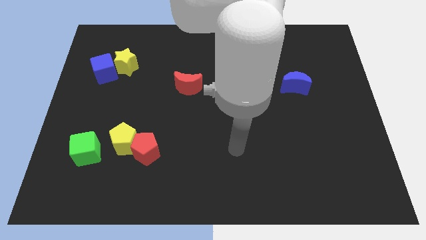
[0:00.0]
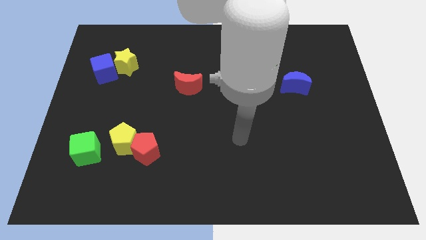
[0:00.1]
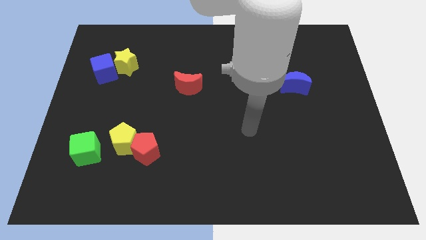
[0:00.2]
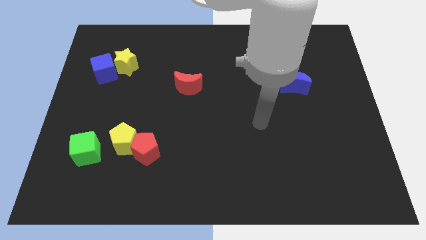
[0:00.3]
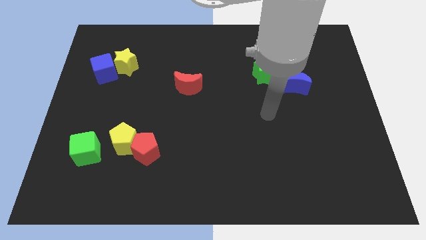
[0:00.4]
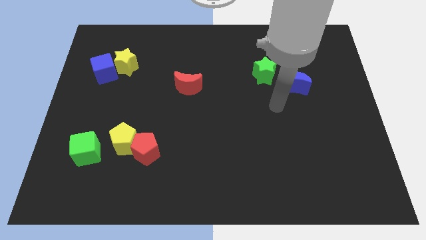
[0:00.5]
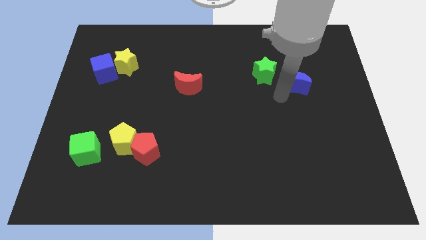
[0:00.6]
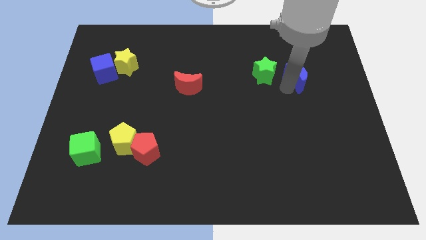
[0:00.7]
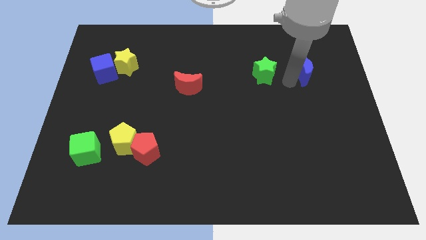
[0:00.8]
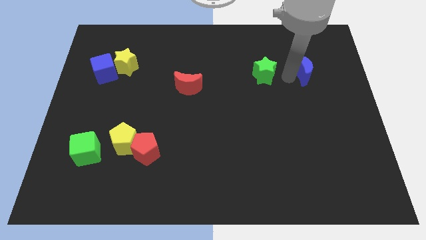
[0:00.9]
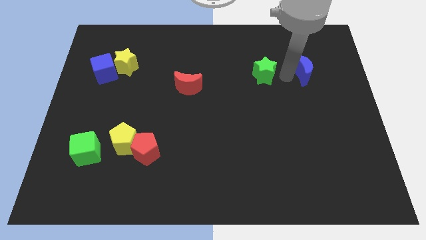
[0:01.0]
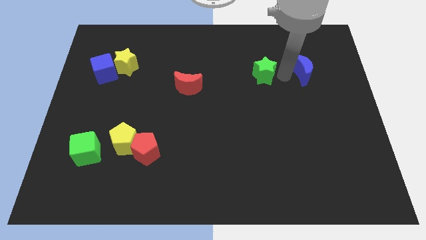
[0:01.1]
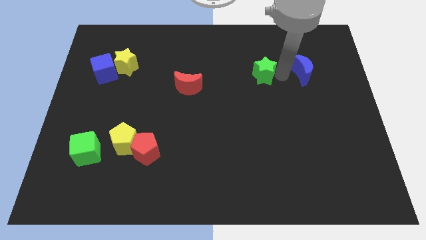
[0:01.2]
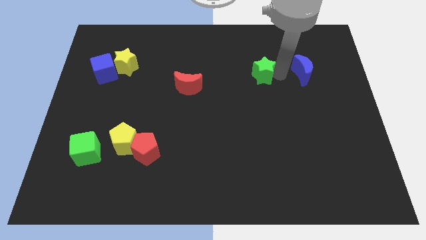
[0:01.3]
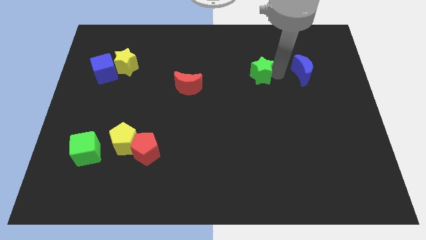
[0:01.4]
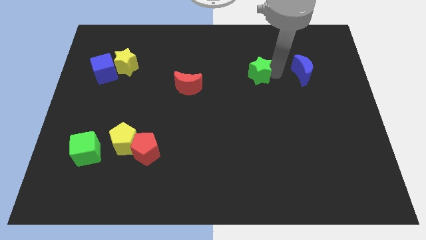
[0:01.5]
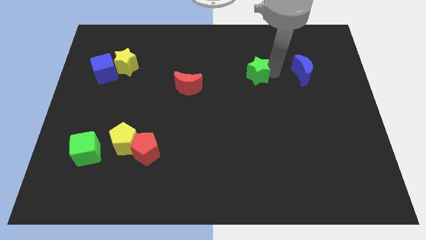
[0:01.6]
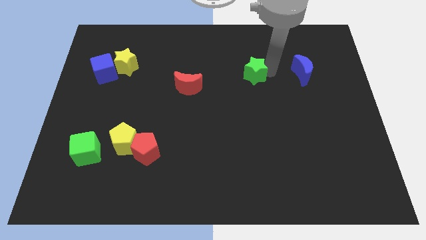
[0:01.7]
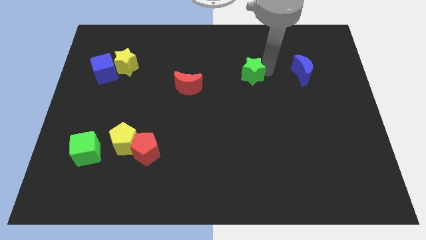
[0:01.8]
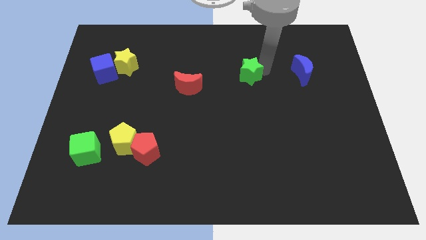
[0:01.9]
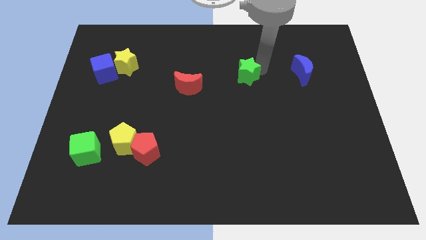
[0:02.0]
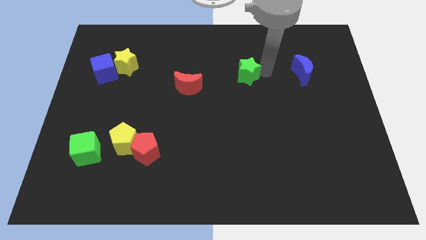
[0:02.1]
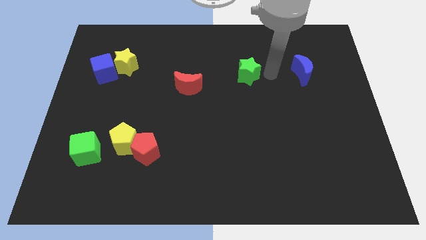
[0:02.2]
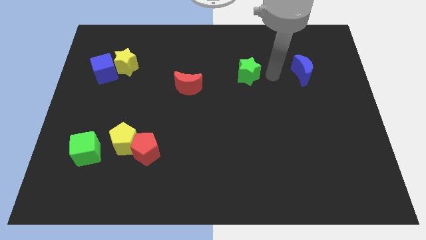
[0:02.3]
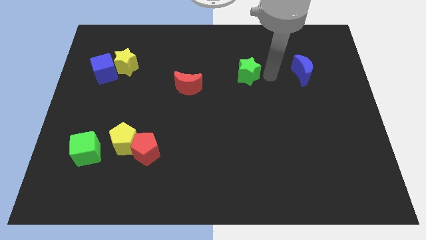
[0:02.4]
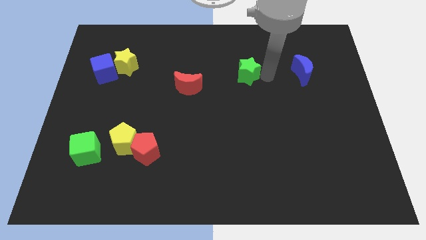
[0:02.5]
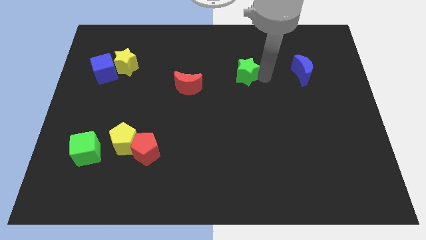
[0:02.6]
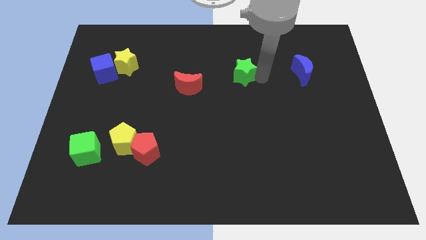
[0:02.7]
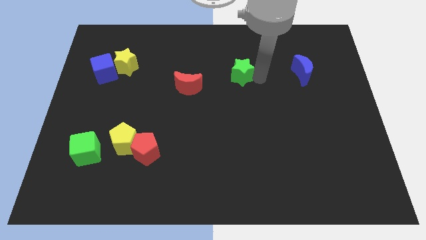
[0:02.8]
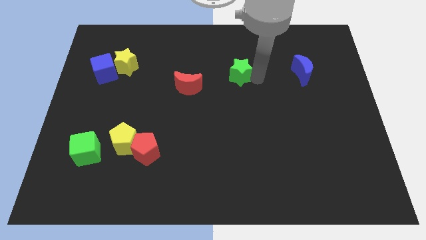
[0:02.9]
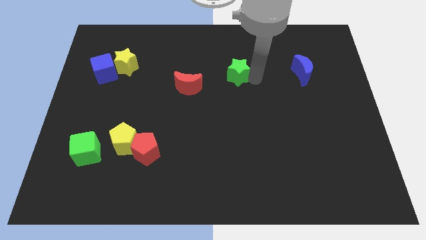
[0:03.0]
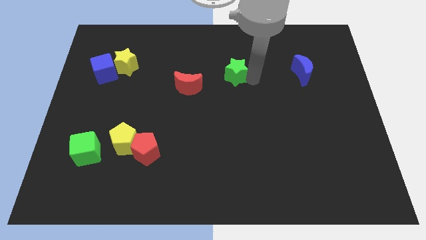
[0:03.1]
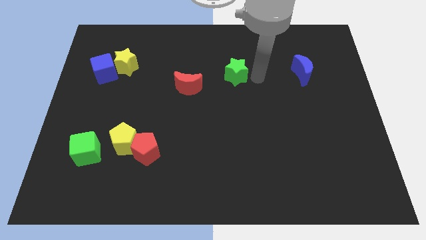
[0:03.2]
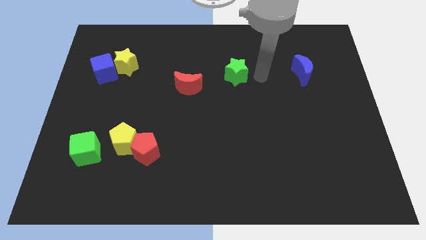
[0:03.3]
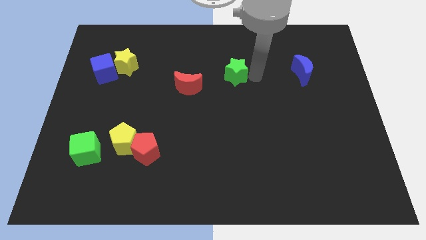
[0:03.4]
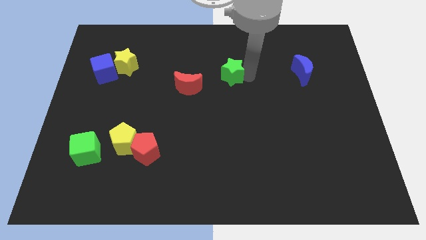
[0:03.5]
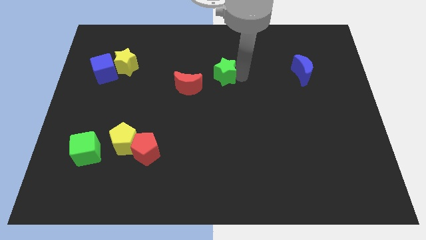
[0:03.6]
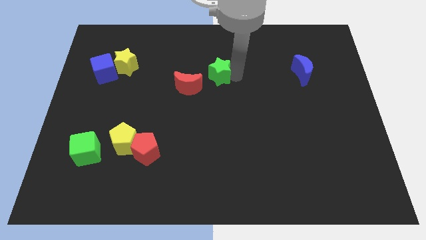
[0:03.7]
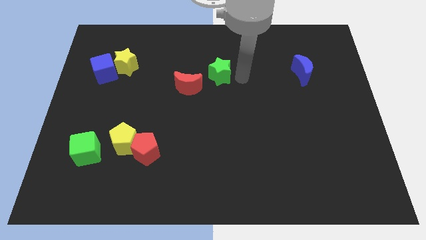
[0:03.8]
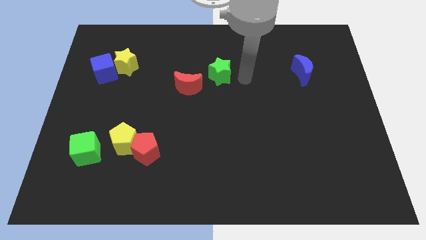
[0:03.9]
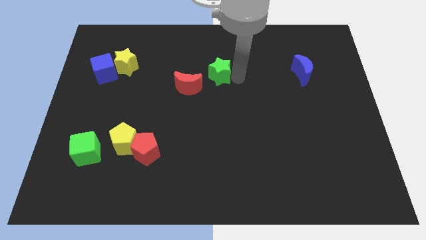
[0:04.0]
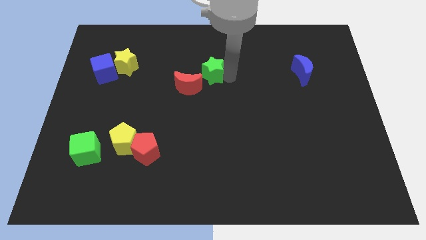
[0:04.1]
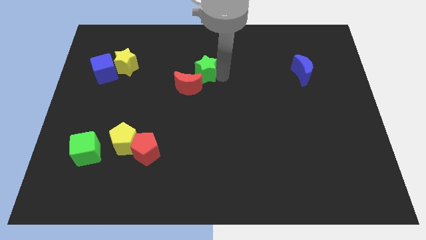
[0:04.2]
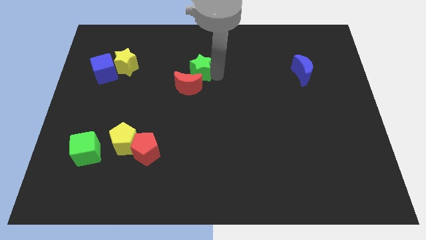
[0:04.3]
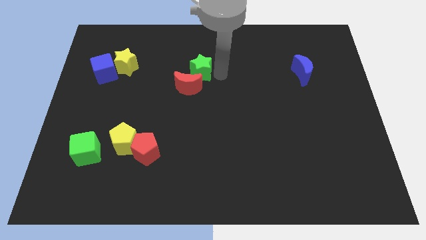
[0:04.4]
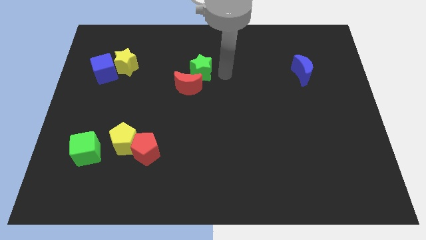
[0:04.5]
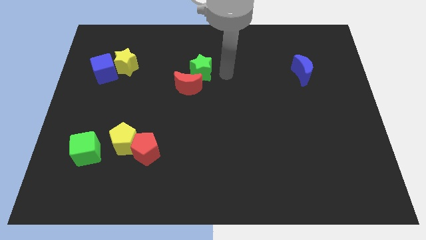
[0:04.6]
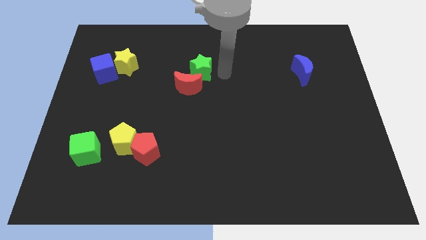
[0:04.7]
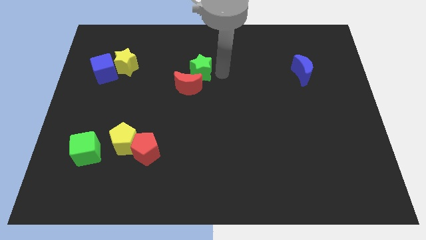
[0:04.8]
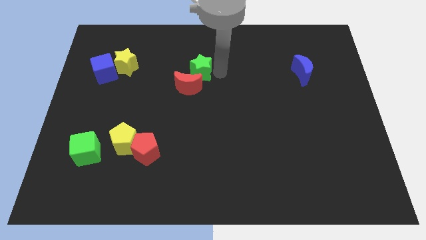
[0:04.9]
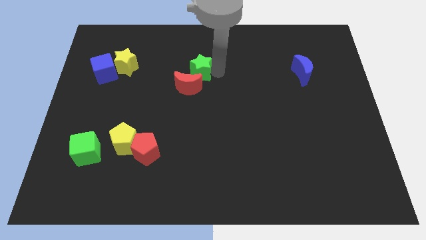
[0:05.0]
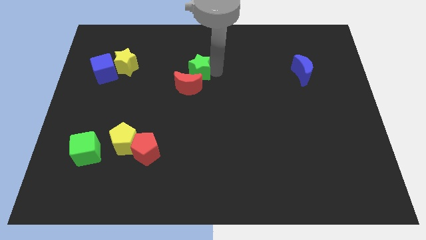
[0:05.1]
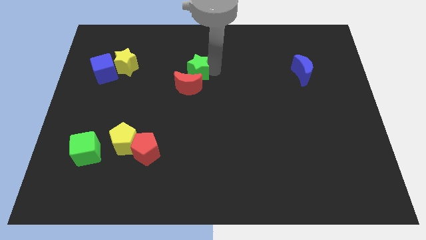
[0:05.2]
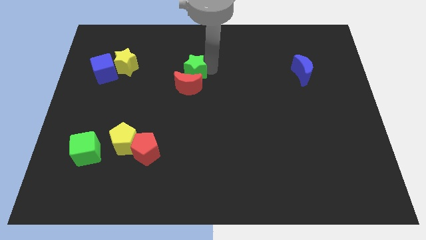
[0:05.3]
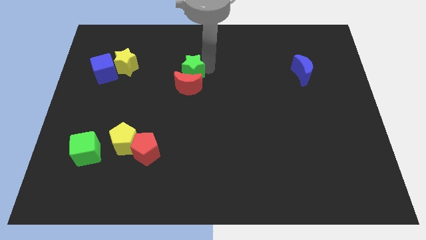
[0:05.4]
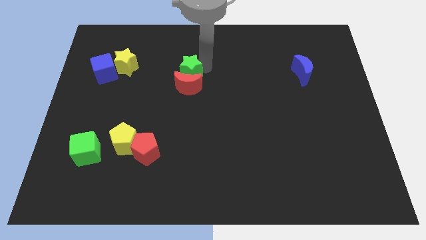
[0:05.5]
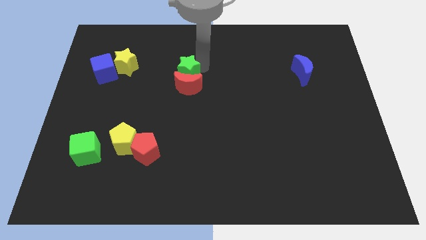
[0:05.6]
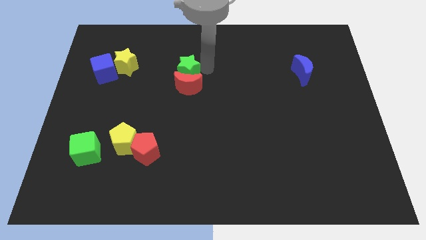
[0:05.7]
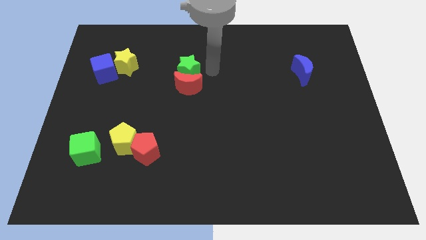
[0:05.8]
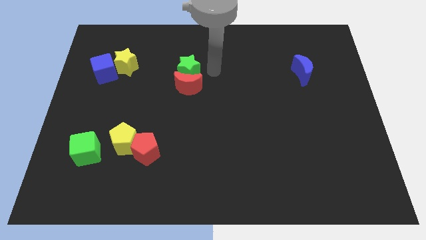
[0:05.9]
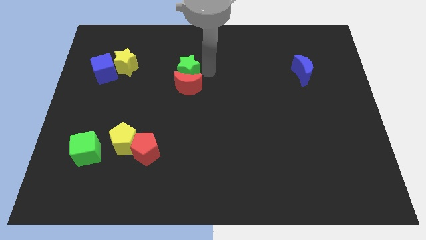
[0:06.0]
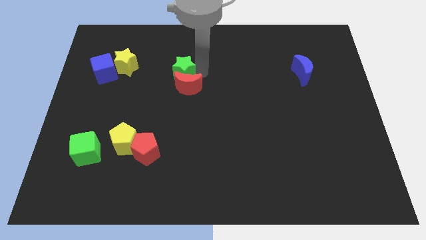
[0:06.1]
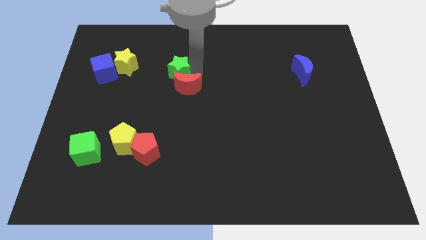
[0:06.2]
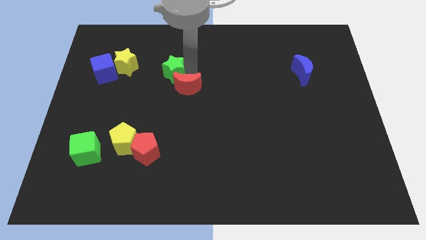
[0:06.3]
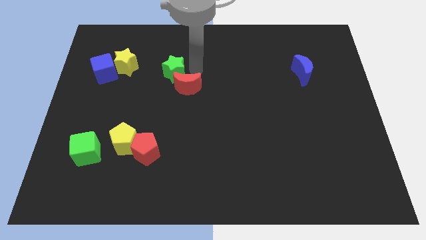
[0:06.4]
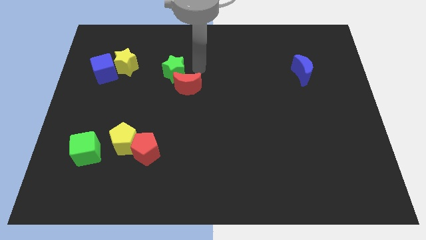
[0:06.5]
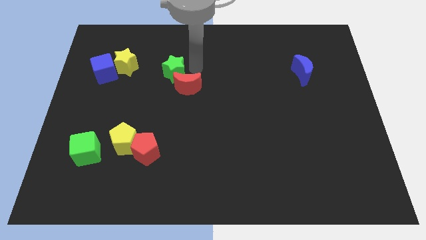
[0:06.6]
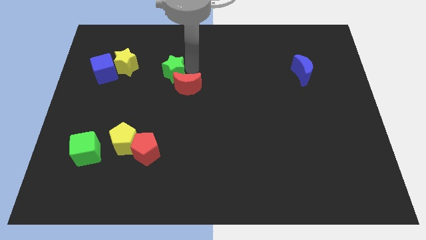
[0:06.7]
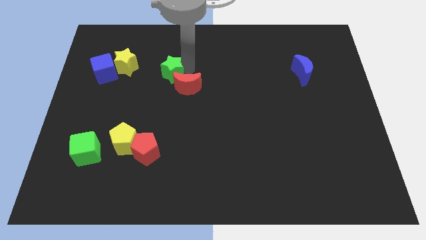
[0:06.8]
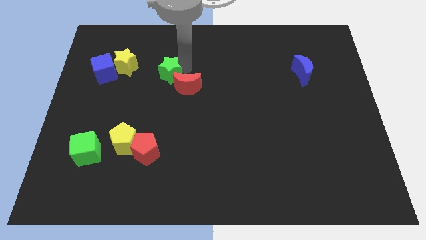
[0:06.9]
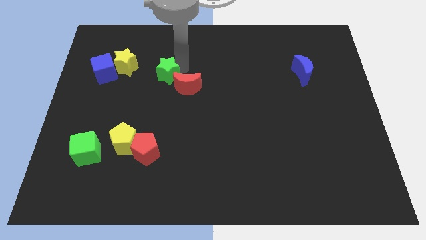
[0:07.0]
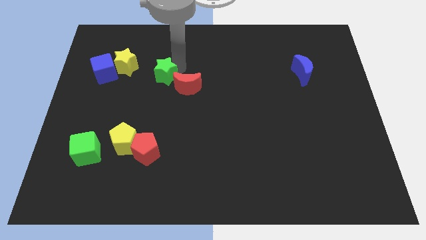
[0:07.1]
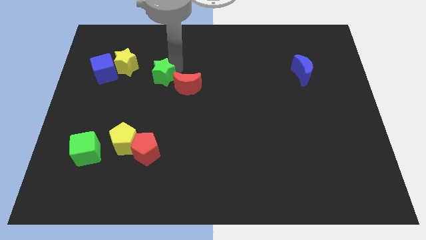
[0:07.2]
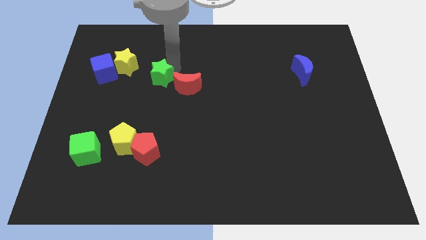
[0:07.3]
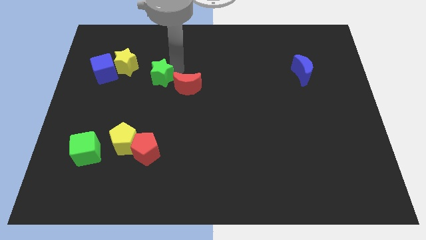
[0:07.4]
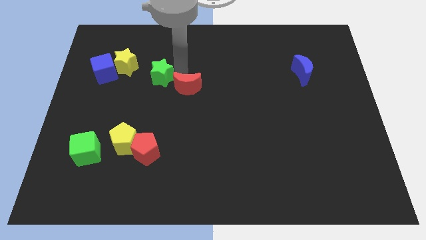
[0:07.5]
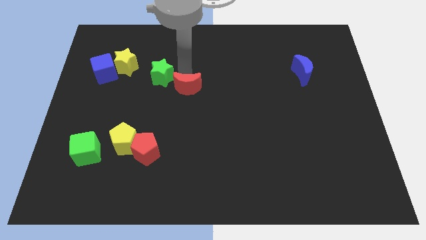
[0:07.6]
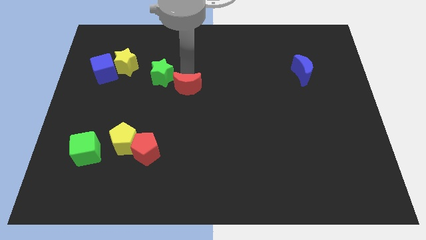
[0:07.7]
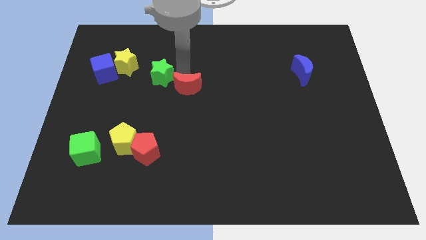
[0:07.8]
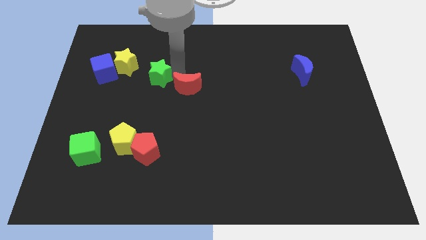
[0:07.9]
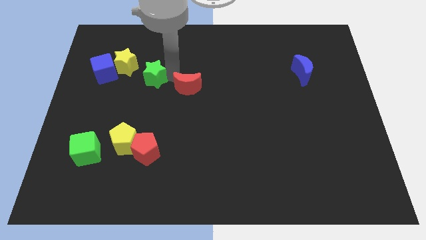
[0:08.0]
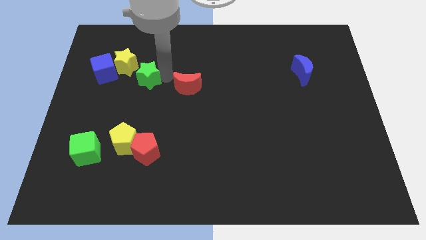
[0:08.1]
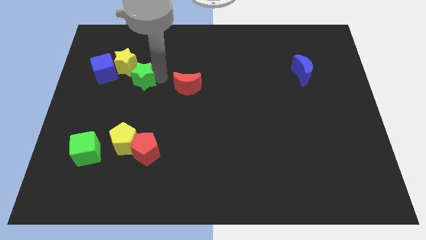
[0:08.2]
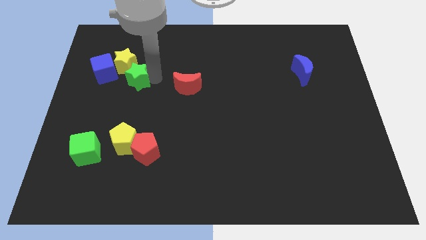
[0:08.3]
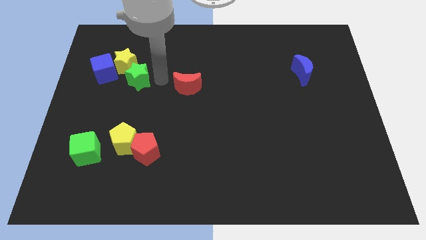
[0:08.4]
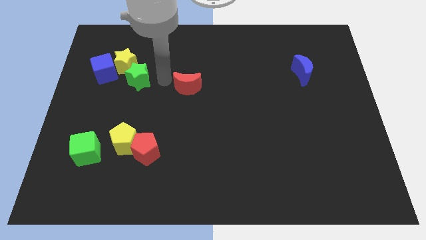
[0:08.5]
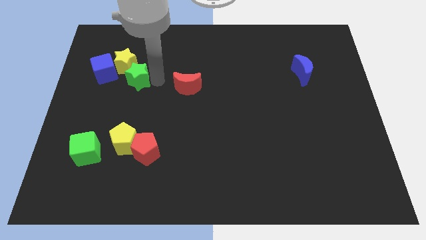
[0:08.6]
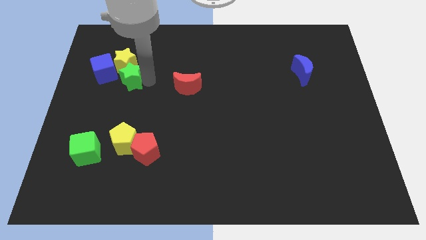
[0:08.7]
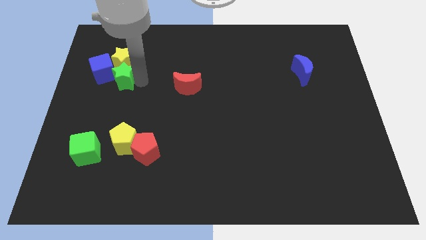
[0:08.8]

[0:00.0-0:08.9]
move the green star diagonally down and to the left of the yellow star
